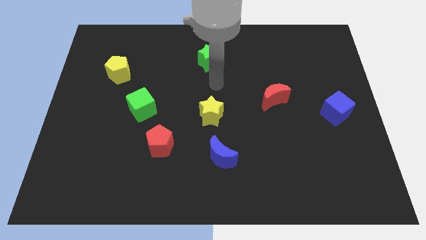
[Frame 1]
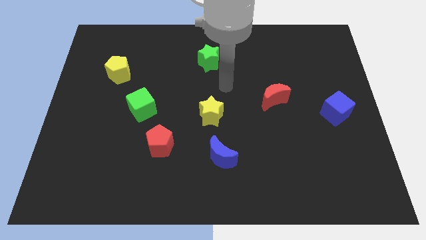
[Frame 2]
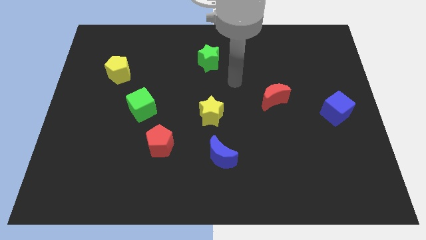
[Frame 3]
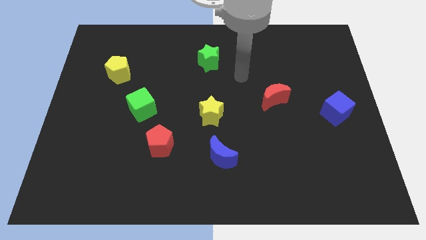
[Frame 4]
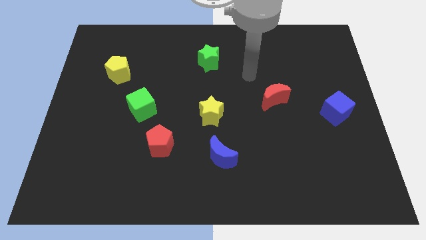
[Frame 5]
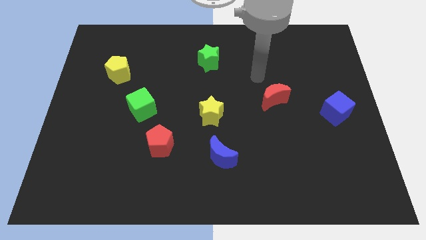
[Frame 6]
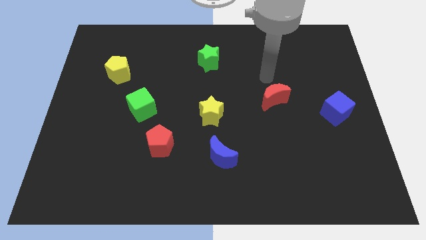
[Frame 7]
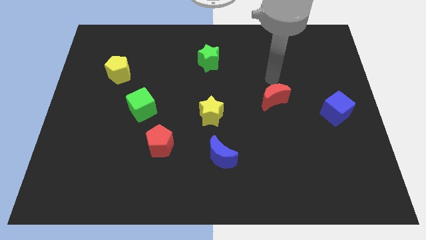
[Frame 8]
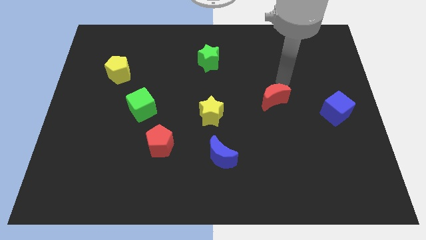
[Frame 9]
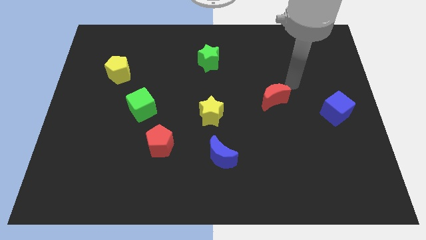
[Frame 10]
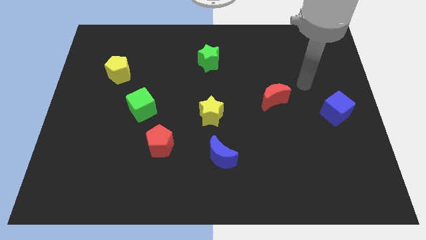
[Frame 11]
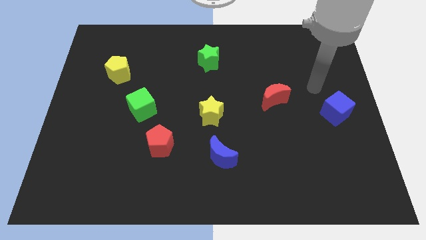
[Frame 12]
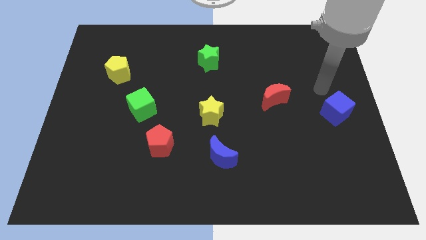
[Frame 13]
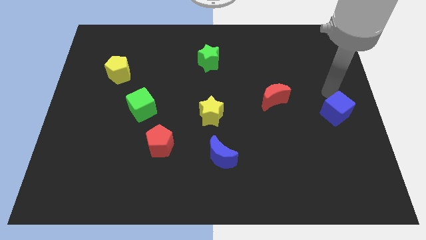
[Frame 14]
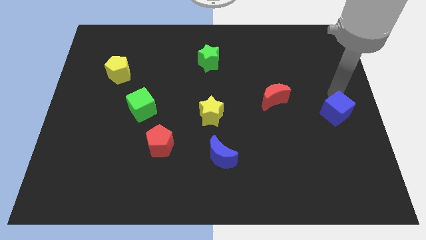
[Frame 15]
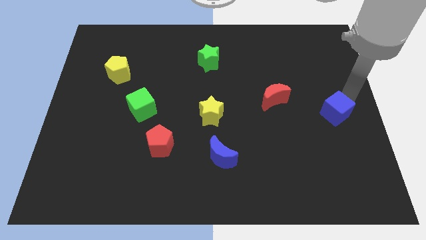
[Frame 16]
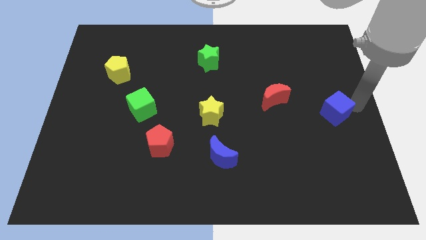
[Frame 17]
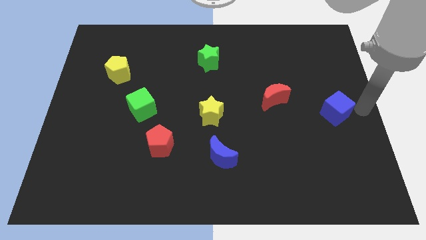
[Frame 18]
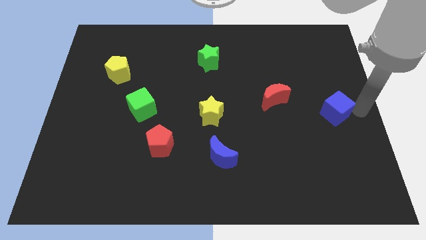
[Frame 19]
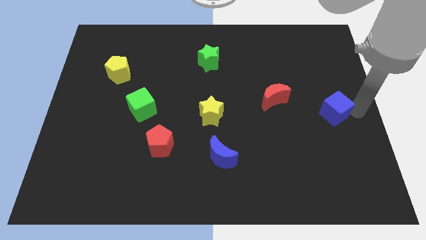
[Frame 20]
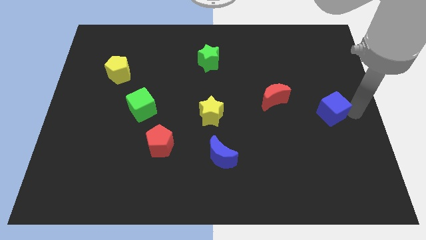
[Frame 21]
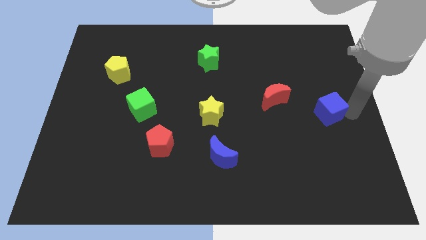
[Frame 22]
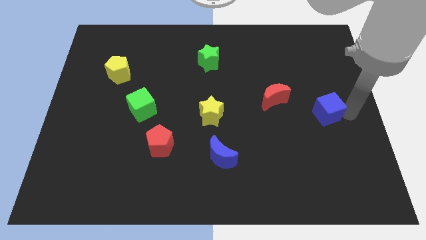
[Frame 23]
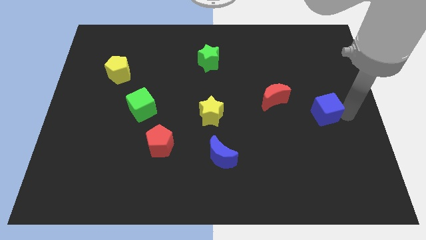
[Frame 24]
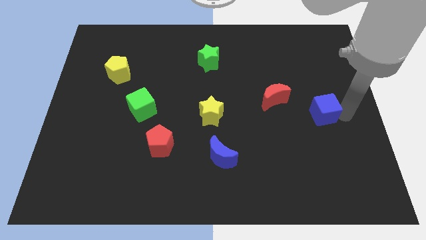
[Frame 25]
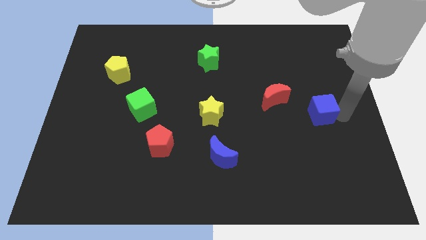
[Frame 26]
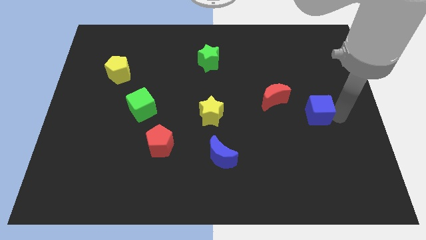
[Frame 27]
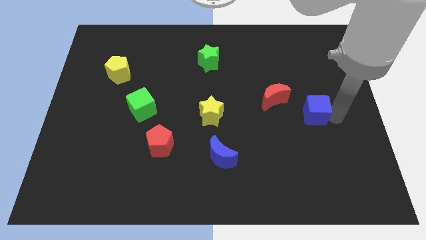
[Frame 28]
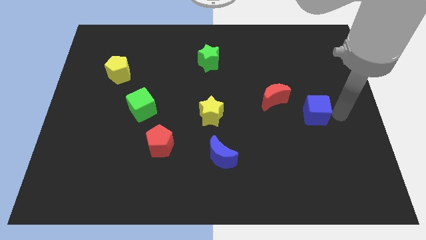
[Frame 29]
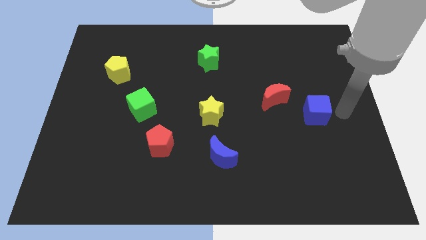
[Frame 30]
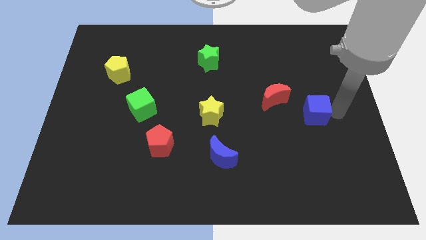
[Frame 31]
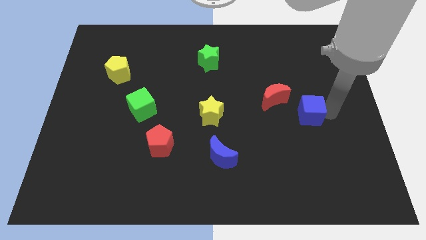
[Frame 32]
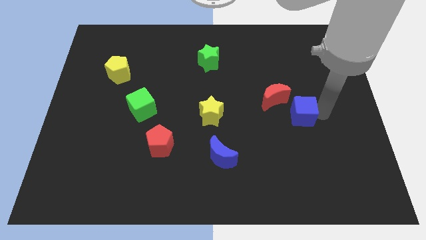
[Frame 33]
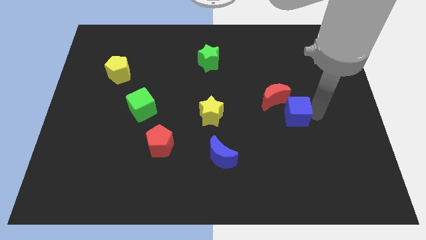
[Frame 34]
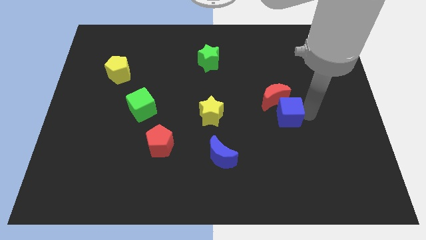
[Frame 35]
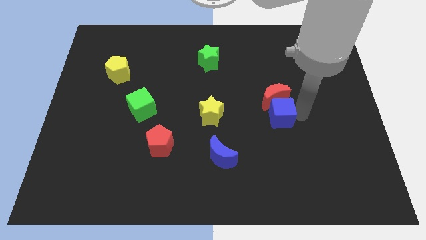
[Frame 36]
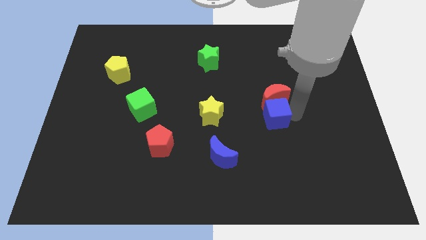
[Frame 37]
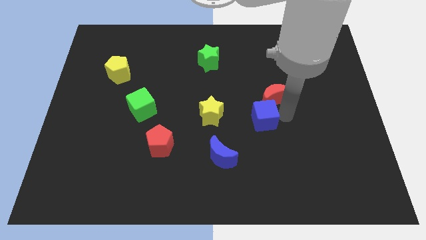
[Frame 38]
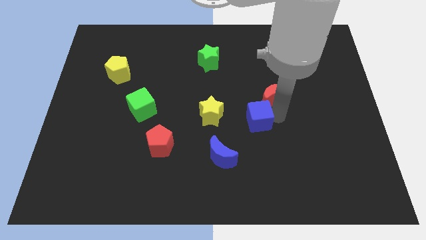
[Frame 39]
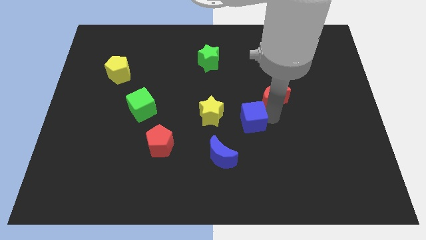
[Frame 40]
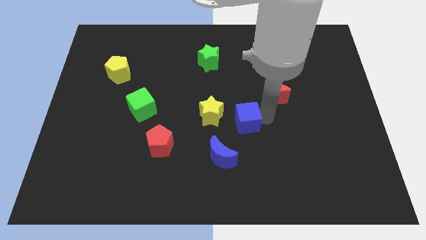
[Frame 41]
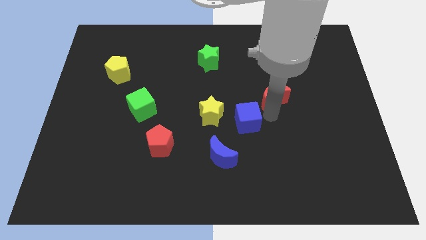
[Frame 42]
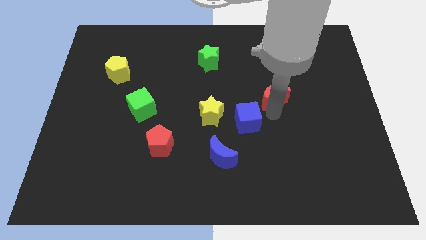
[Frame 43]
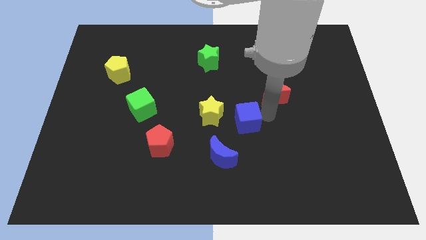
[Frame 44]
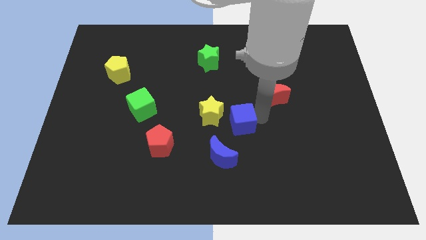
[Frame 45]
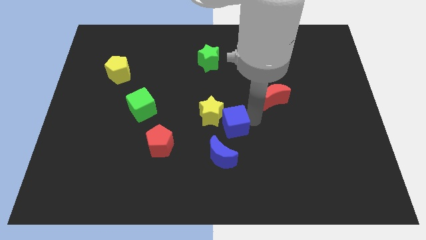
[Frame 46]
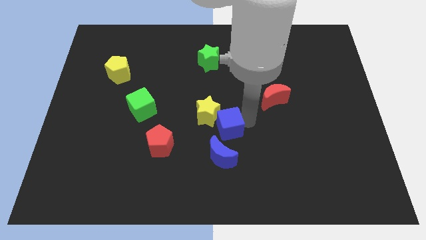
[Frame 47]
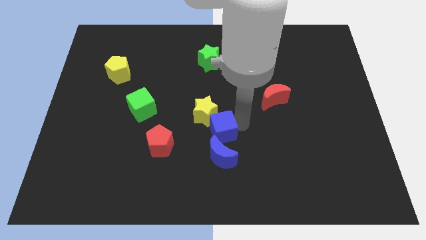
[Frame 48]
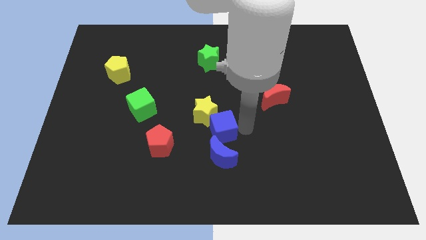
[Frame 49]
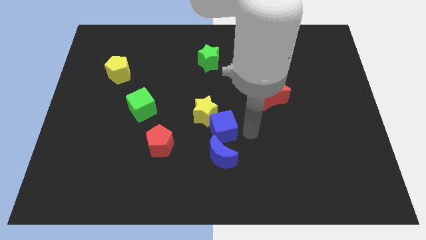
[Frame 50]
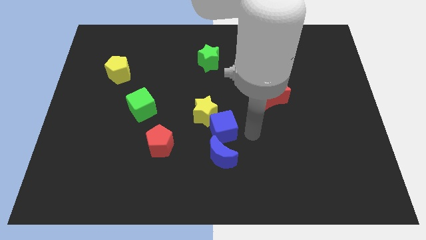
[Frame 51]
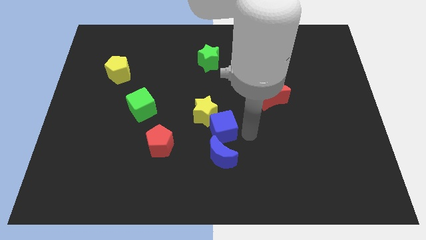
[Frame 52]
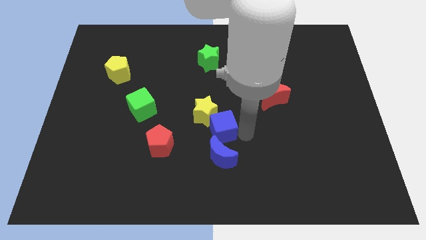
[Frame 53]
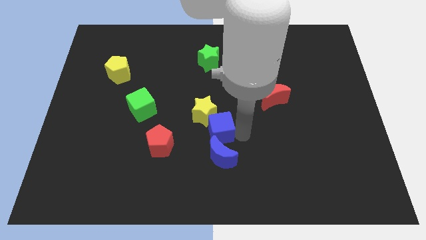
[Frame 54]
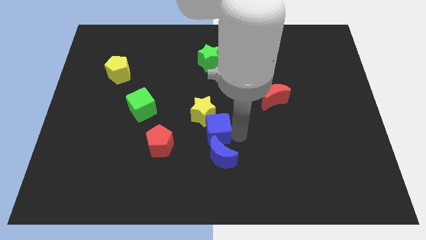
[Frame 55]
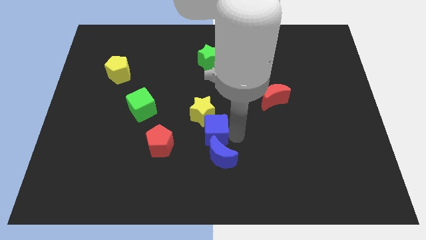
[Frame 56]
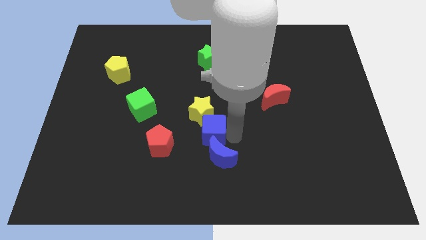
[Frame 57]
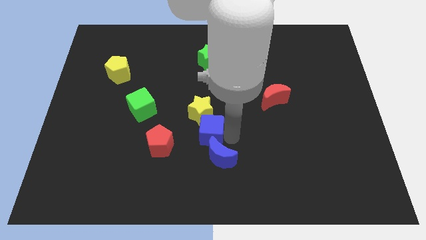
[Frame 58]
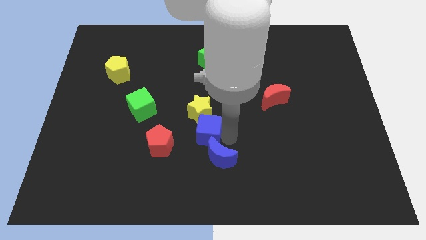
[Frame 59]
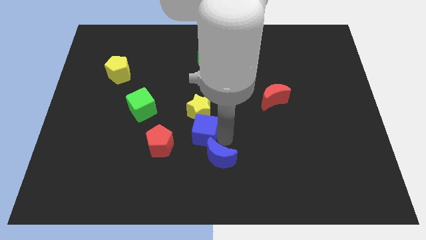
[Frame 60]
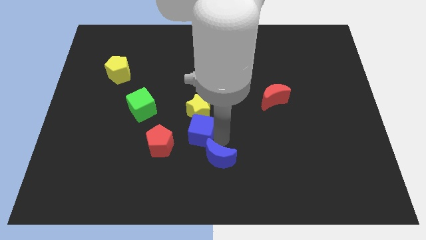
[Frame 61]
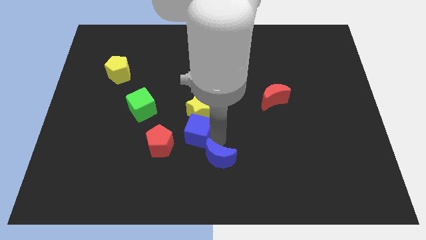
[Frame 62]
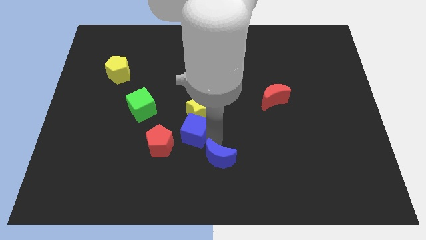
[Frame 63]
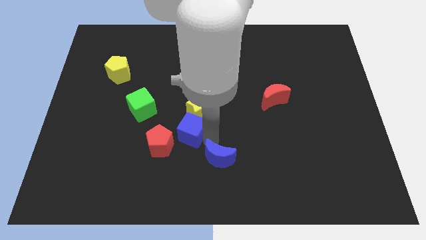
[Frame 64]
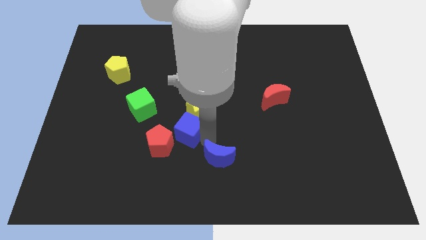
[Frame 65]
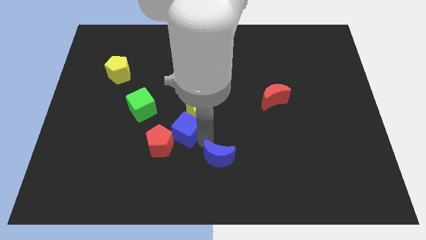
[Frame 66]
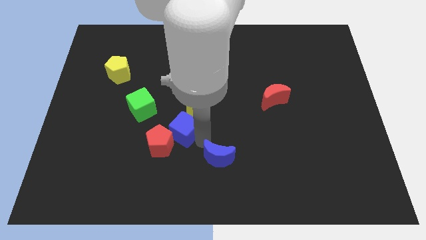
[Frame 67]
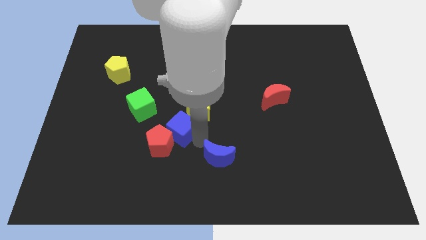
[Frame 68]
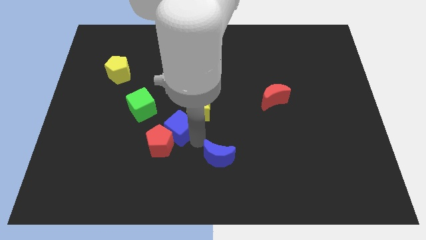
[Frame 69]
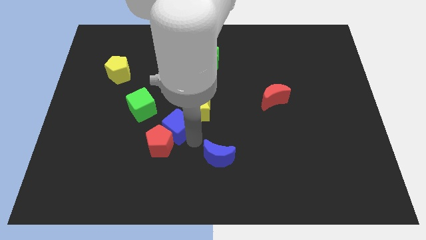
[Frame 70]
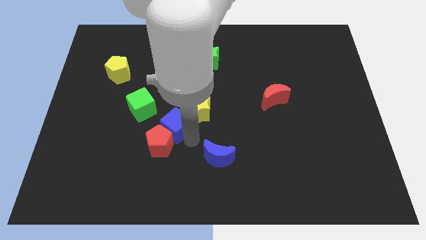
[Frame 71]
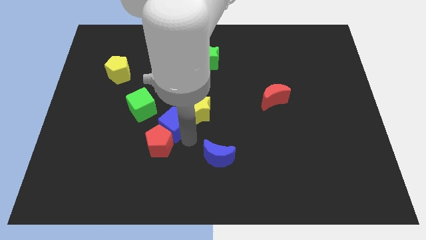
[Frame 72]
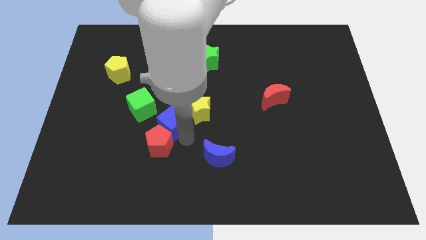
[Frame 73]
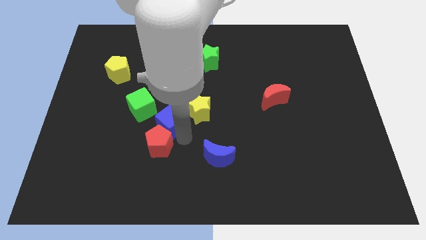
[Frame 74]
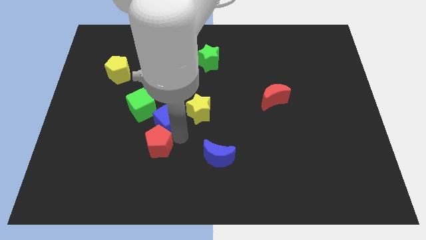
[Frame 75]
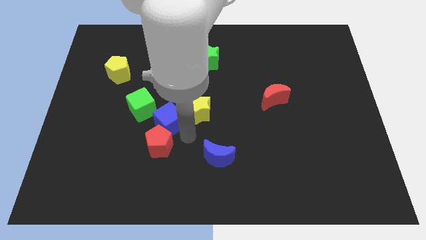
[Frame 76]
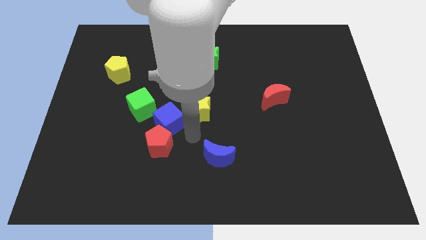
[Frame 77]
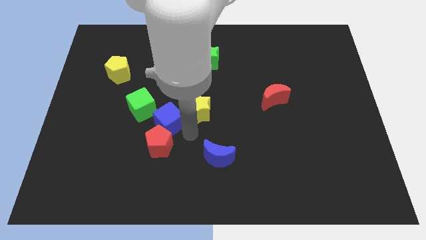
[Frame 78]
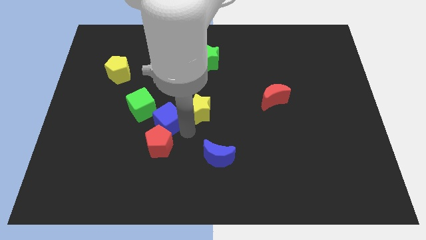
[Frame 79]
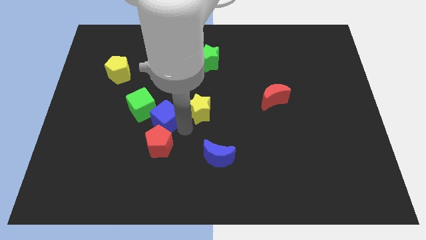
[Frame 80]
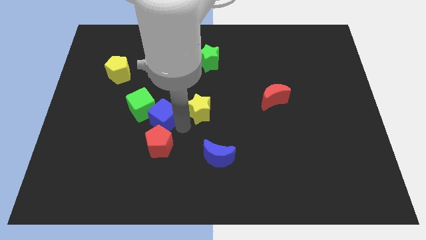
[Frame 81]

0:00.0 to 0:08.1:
push the blue cube towards the green cube
